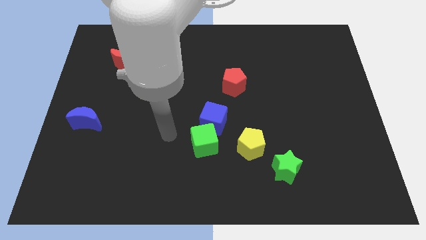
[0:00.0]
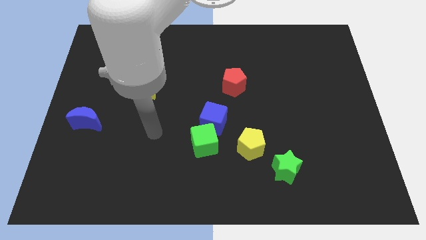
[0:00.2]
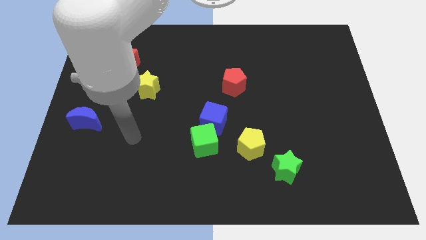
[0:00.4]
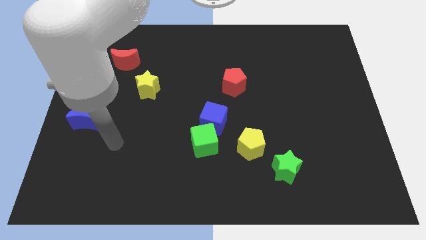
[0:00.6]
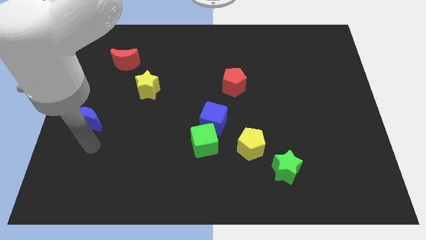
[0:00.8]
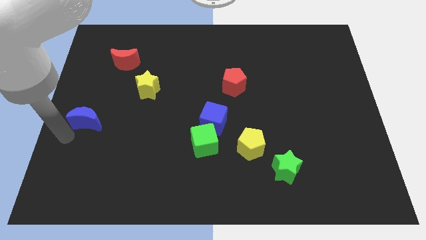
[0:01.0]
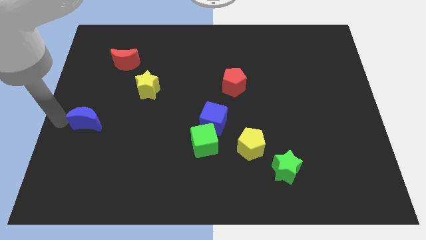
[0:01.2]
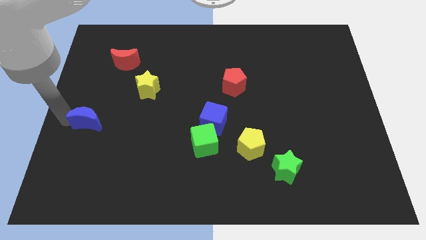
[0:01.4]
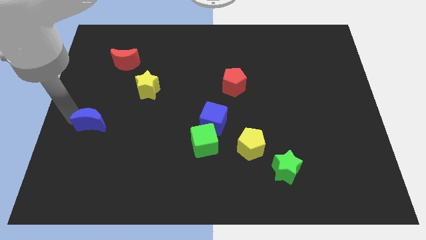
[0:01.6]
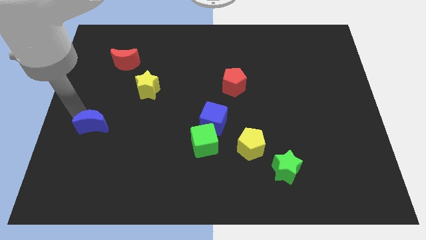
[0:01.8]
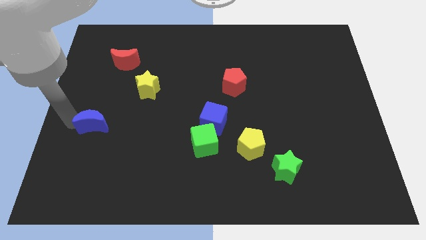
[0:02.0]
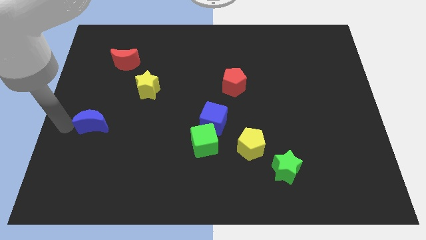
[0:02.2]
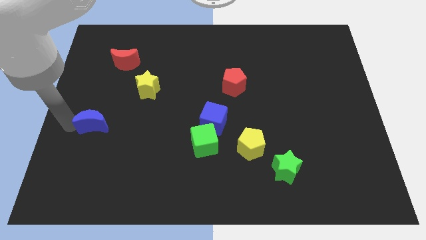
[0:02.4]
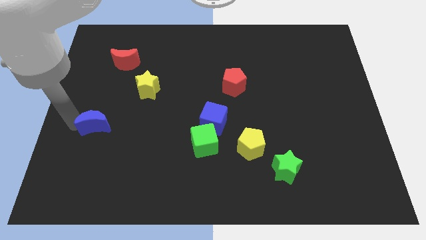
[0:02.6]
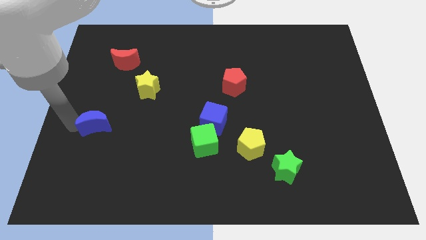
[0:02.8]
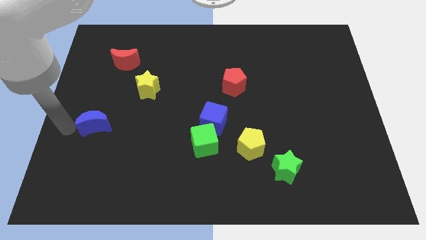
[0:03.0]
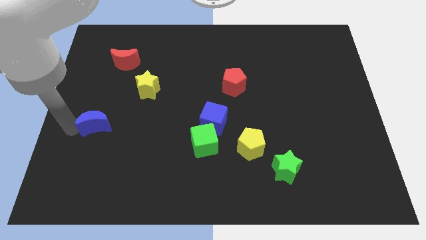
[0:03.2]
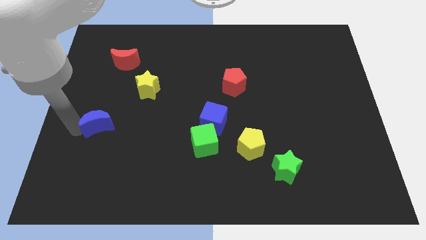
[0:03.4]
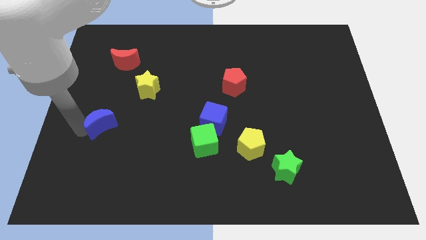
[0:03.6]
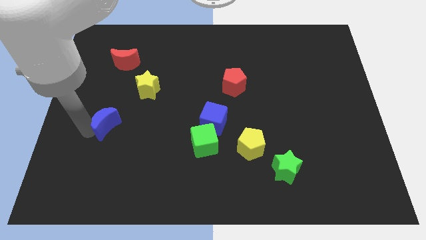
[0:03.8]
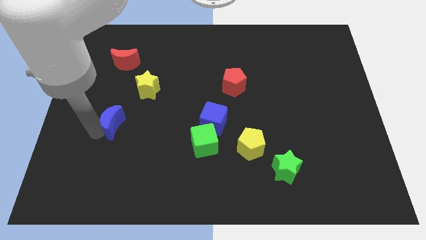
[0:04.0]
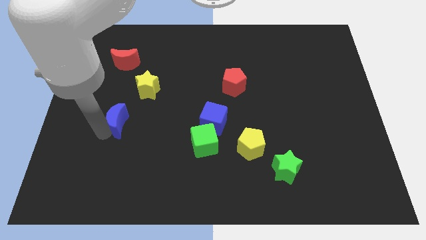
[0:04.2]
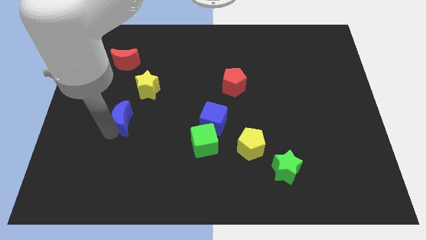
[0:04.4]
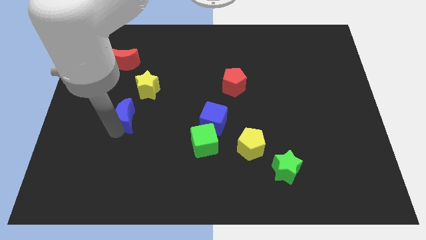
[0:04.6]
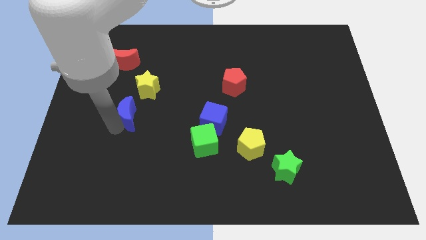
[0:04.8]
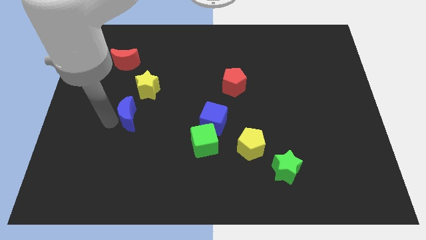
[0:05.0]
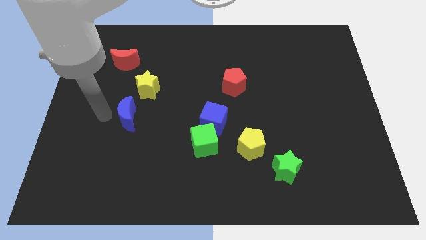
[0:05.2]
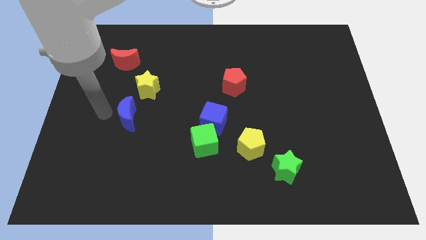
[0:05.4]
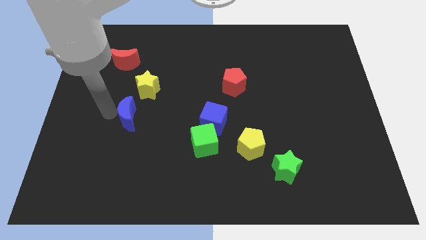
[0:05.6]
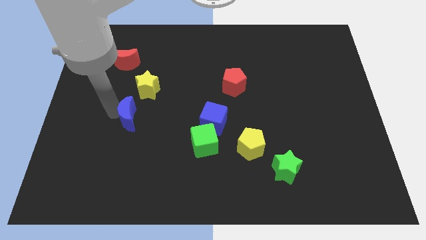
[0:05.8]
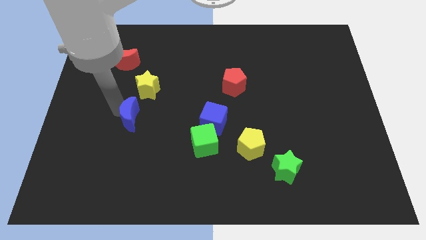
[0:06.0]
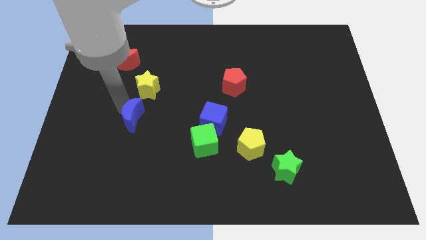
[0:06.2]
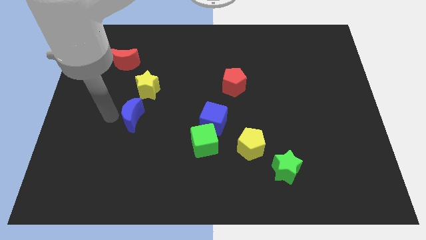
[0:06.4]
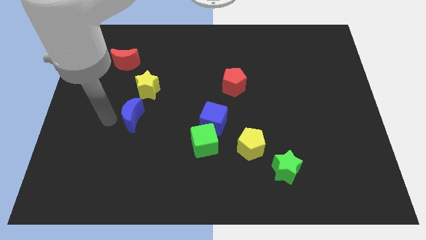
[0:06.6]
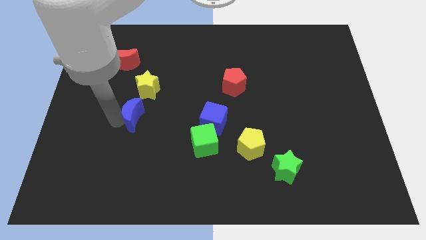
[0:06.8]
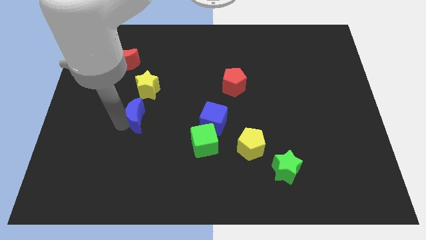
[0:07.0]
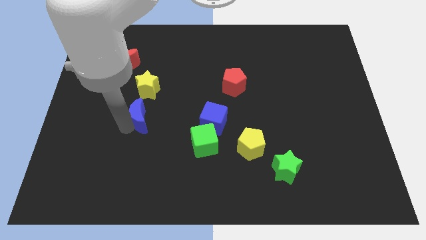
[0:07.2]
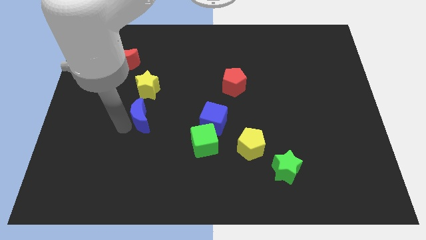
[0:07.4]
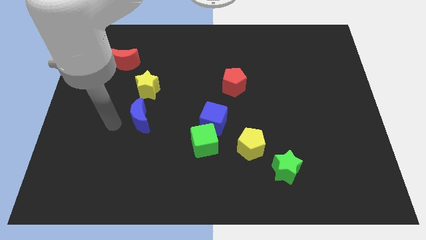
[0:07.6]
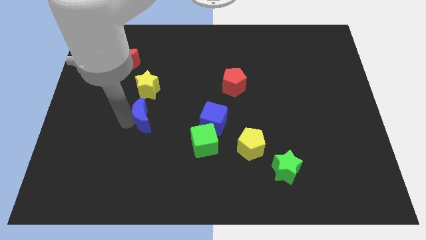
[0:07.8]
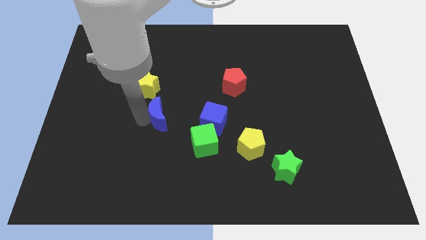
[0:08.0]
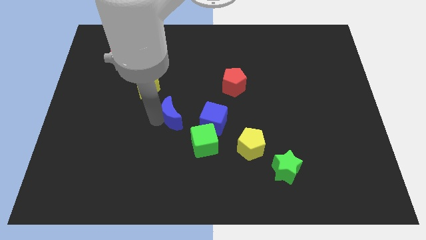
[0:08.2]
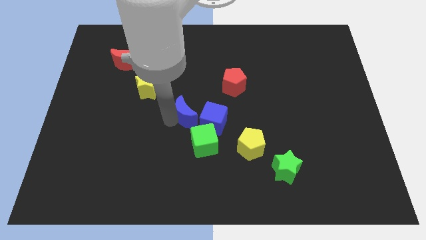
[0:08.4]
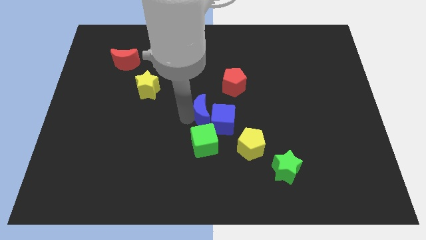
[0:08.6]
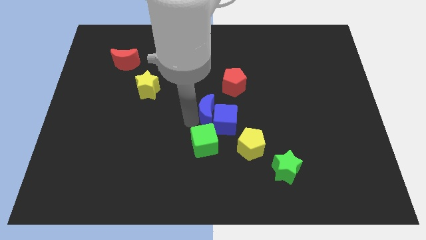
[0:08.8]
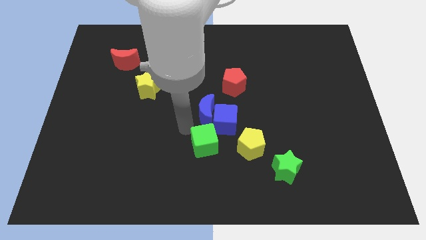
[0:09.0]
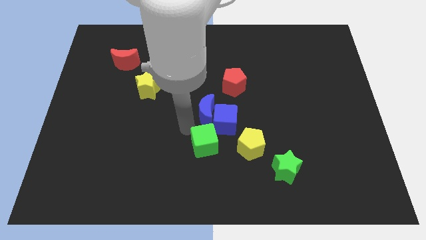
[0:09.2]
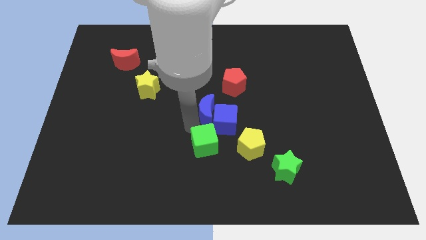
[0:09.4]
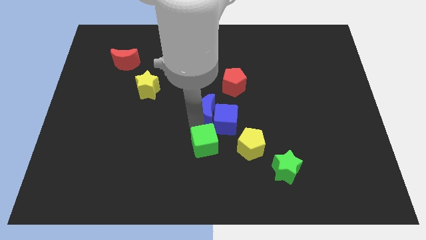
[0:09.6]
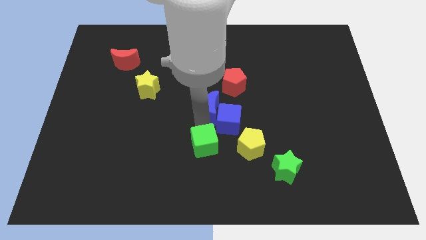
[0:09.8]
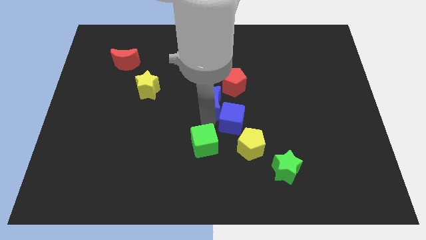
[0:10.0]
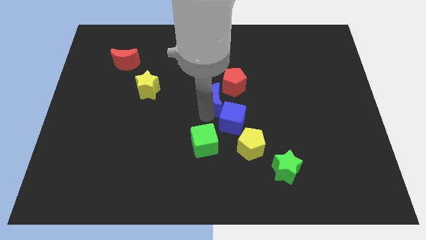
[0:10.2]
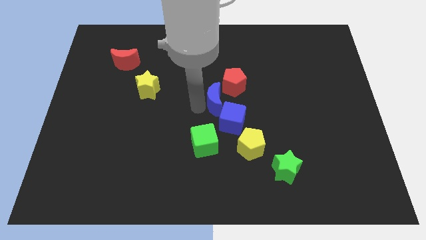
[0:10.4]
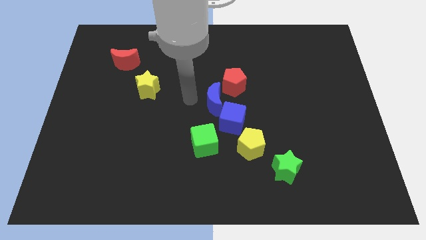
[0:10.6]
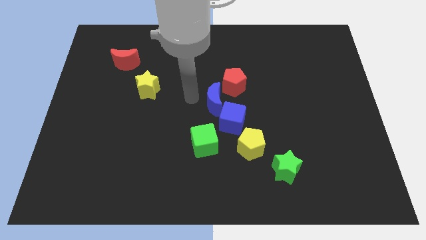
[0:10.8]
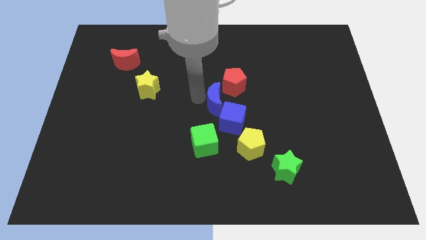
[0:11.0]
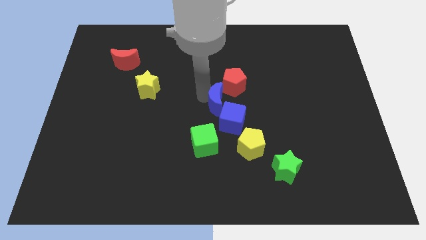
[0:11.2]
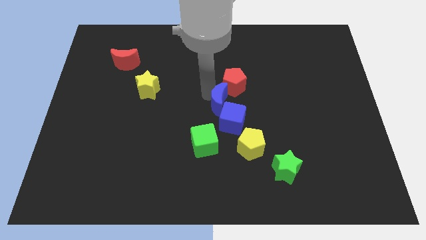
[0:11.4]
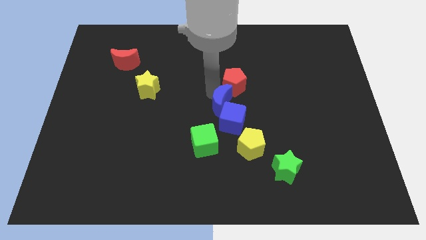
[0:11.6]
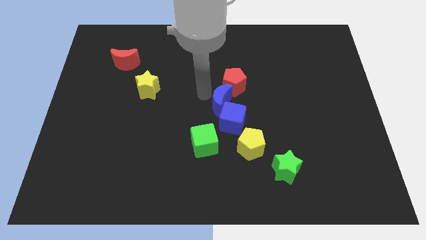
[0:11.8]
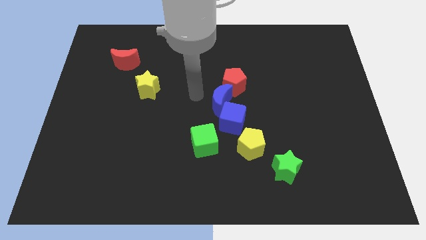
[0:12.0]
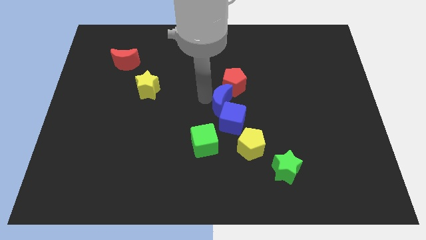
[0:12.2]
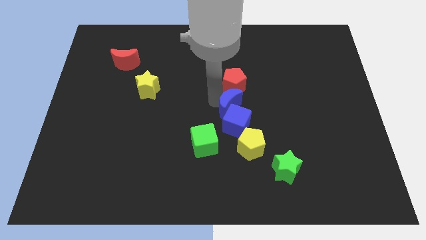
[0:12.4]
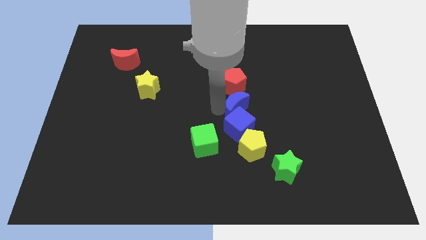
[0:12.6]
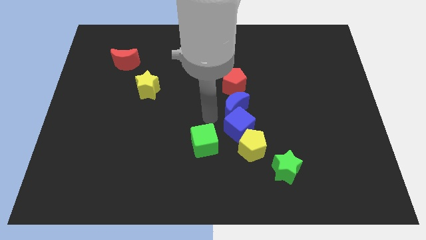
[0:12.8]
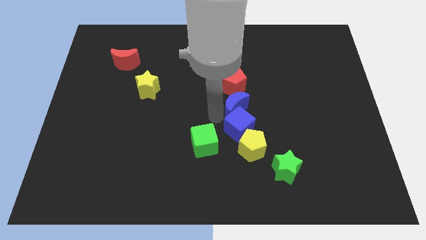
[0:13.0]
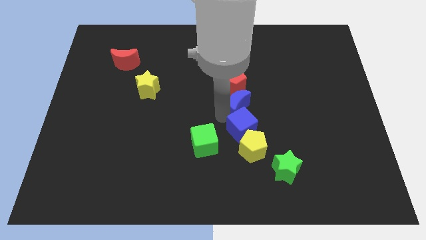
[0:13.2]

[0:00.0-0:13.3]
move the blue moon to the bottom right of the red pentagon
